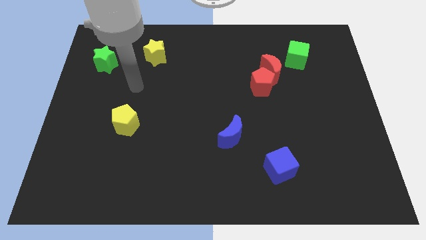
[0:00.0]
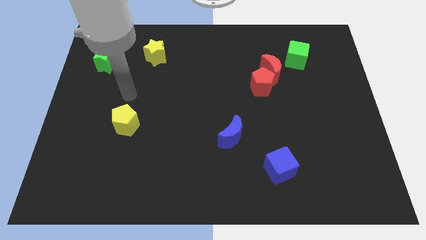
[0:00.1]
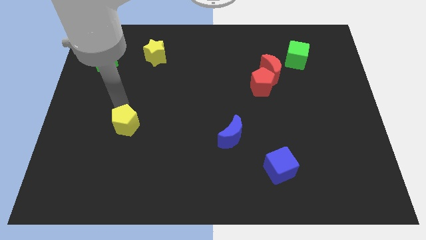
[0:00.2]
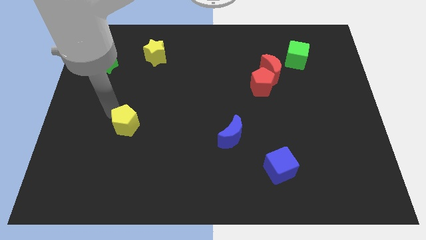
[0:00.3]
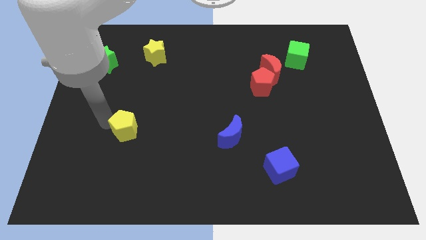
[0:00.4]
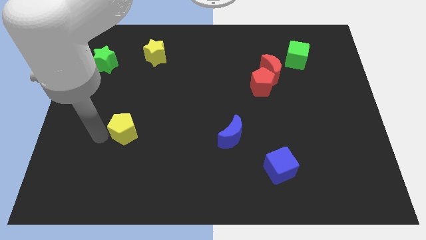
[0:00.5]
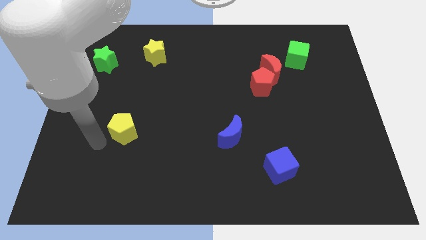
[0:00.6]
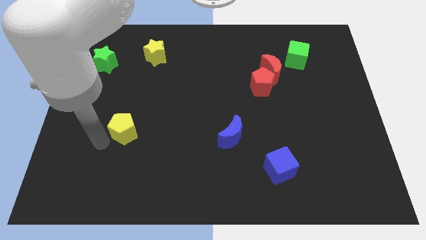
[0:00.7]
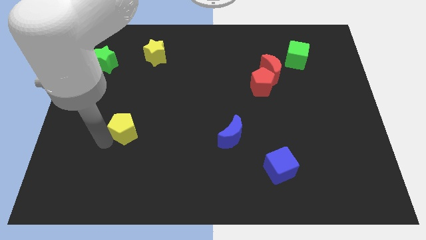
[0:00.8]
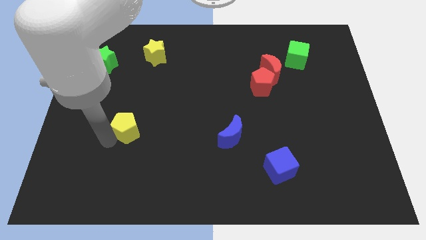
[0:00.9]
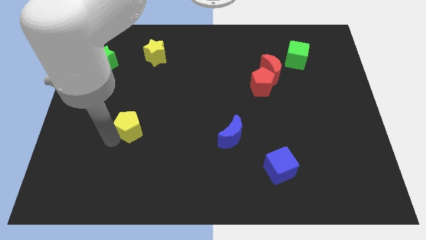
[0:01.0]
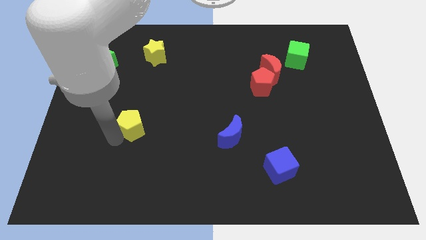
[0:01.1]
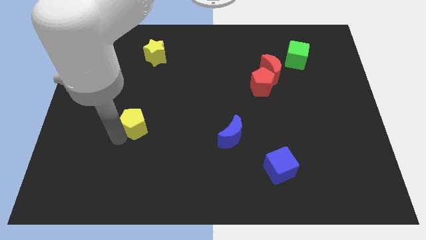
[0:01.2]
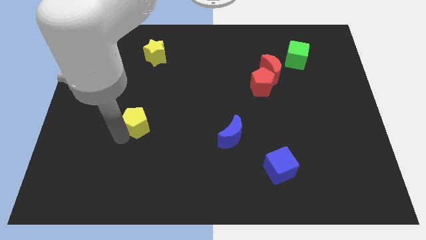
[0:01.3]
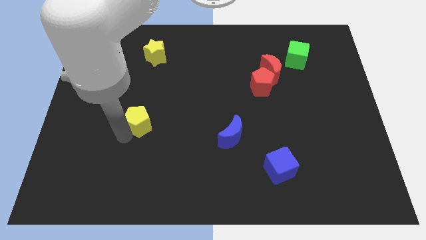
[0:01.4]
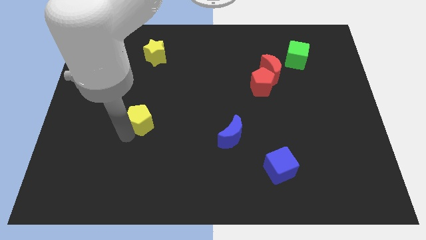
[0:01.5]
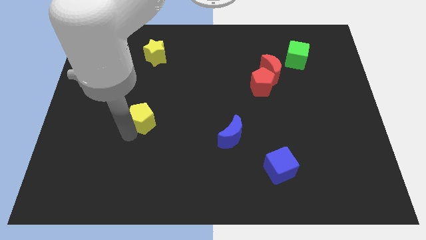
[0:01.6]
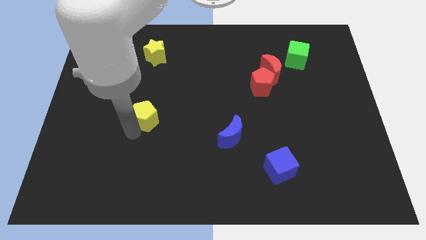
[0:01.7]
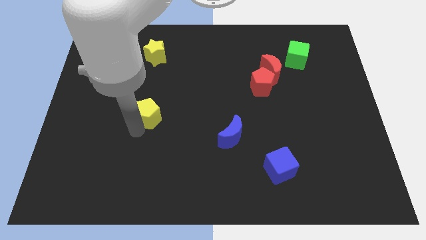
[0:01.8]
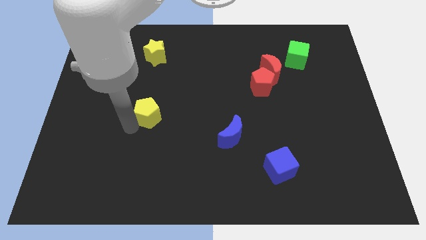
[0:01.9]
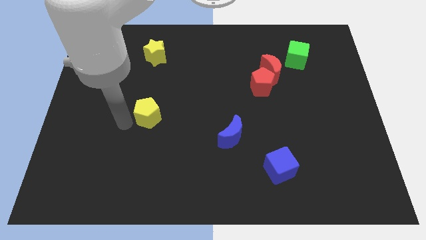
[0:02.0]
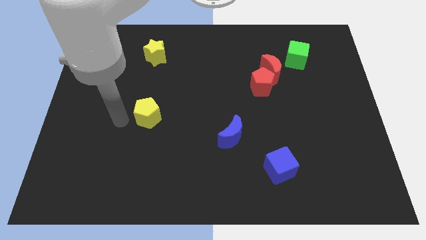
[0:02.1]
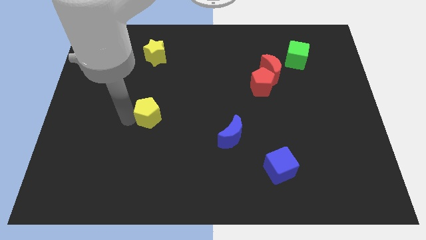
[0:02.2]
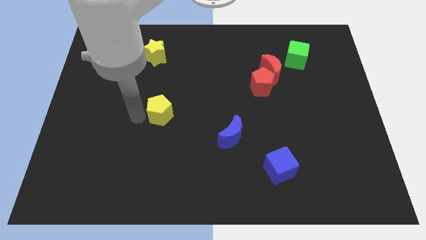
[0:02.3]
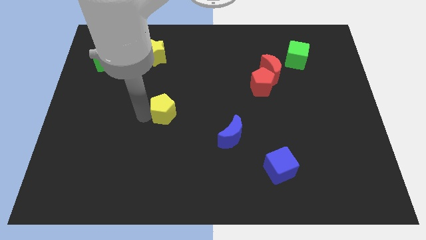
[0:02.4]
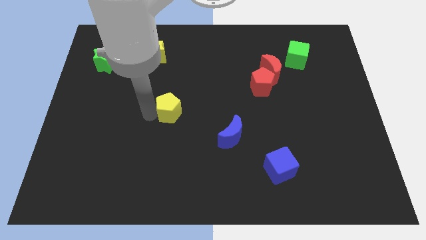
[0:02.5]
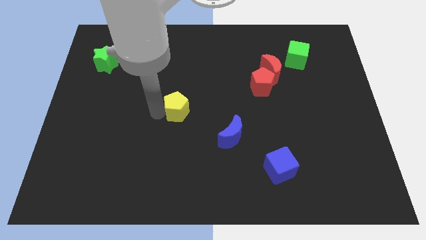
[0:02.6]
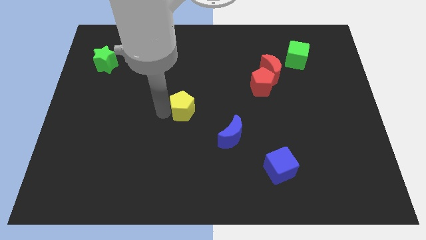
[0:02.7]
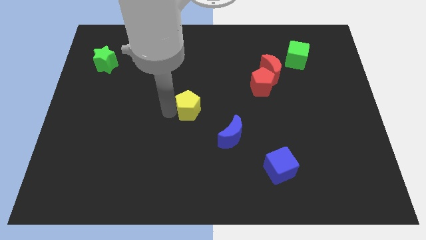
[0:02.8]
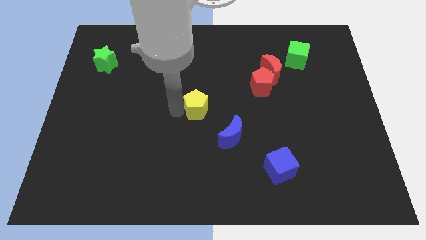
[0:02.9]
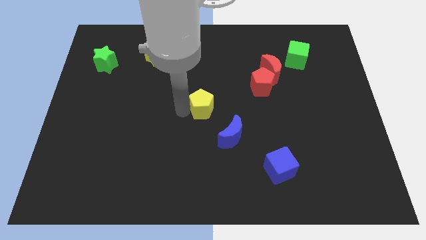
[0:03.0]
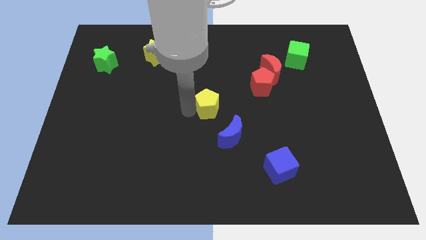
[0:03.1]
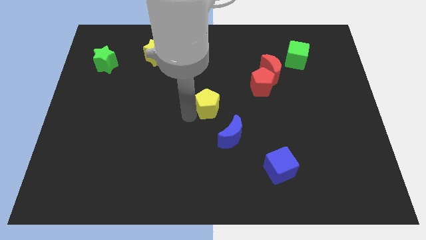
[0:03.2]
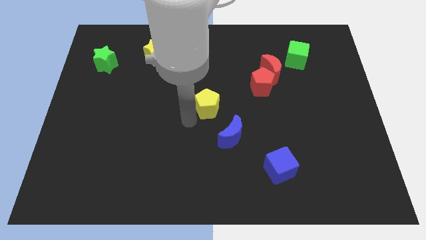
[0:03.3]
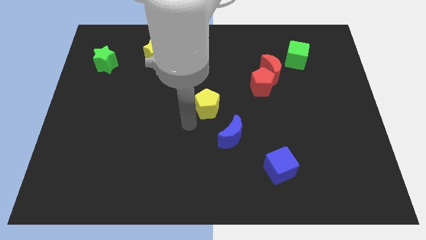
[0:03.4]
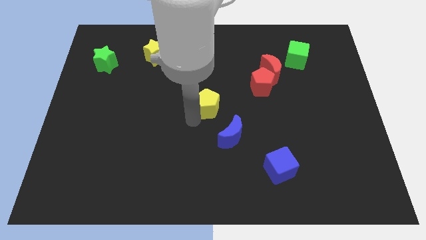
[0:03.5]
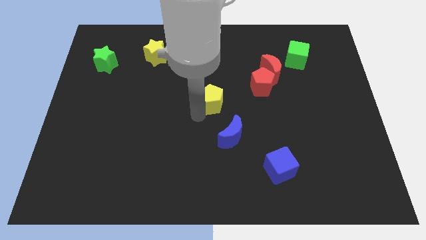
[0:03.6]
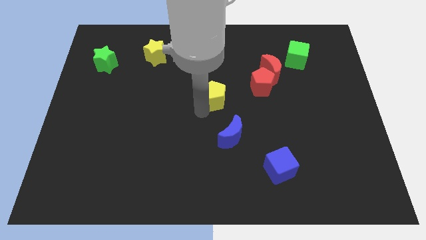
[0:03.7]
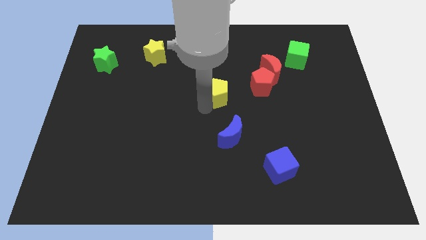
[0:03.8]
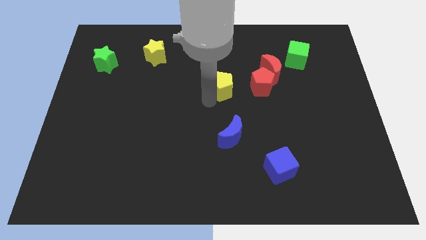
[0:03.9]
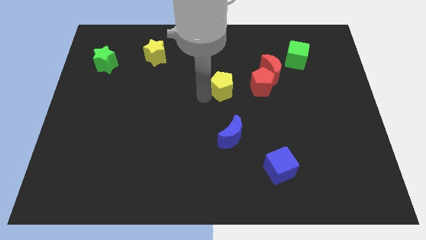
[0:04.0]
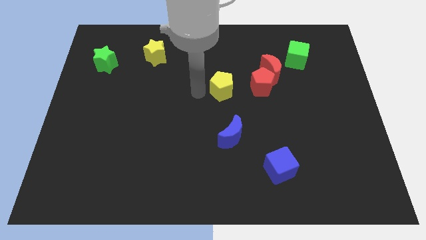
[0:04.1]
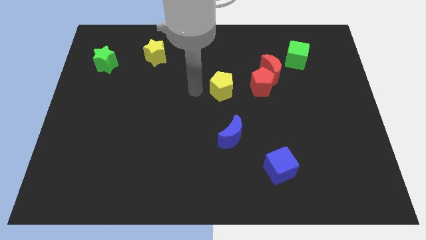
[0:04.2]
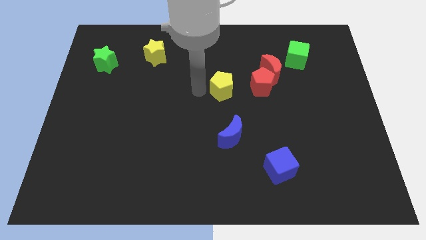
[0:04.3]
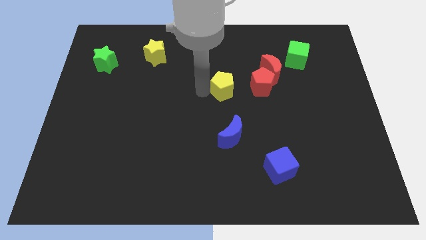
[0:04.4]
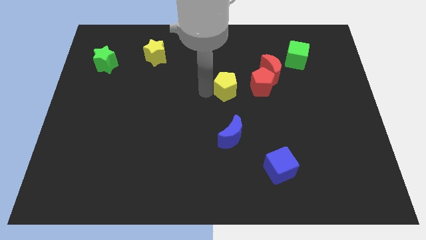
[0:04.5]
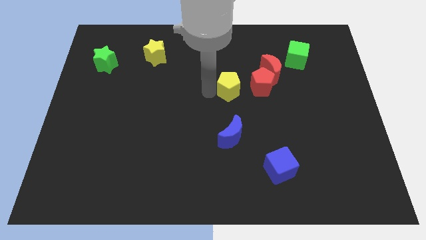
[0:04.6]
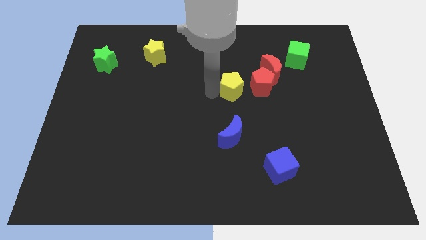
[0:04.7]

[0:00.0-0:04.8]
move the yellow pentagon diagonally down and to the left of the red moon

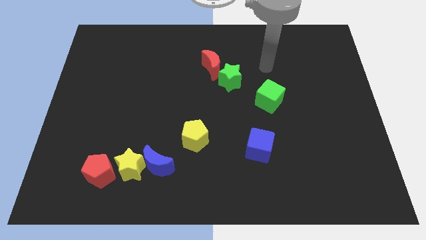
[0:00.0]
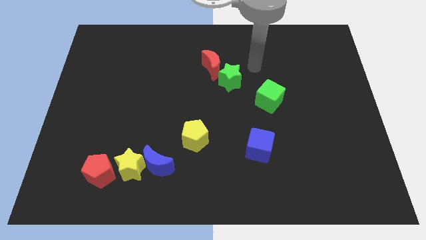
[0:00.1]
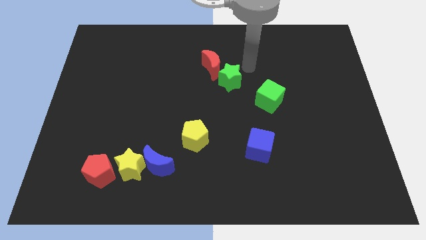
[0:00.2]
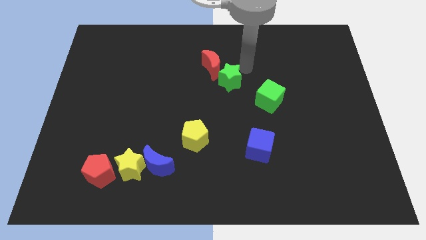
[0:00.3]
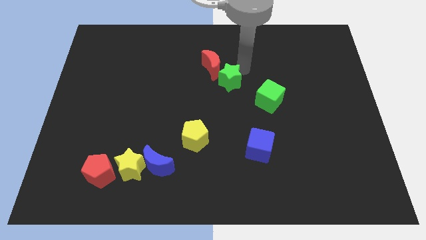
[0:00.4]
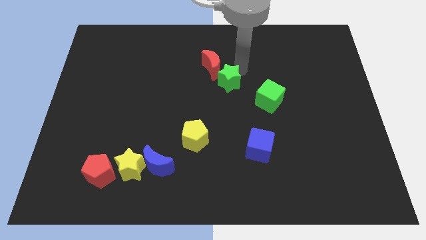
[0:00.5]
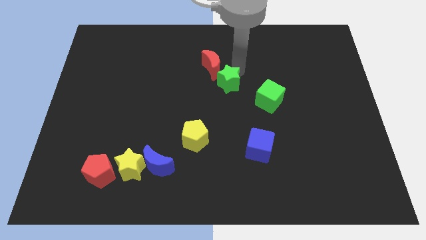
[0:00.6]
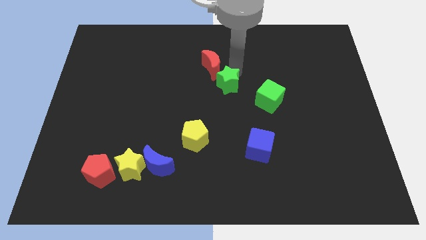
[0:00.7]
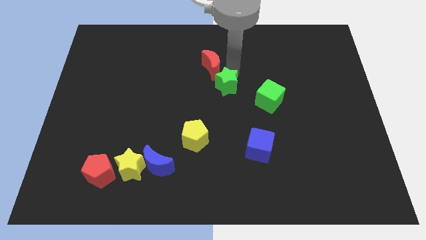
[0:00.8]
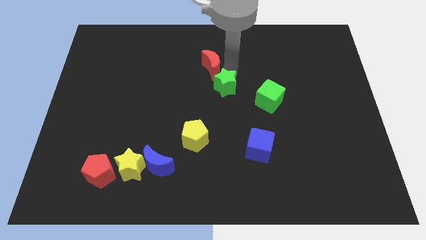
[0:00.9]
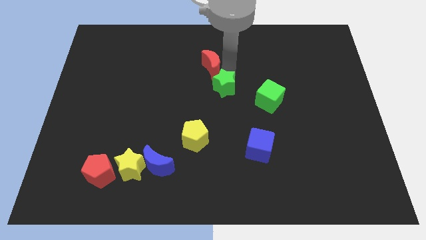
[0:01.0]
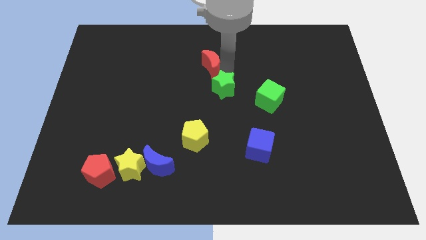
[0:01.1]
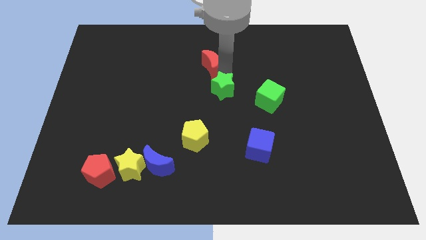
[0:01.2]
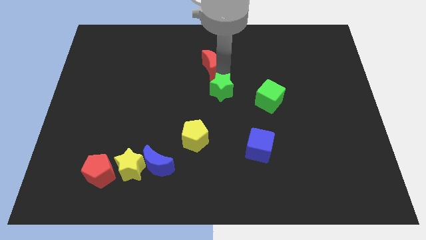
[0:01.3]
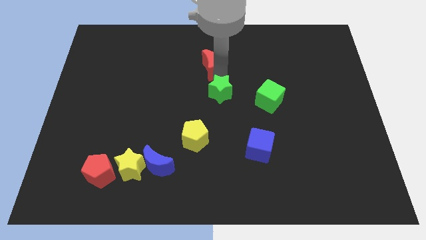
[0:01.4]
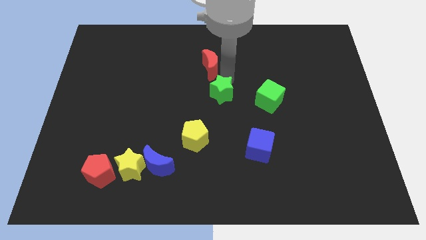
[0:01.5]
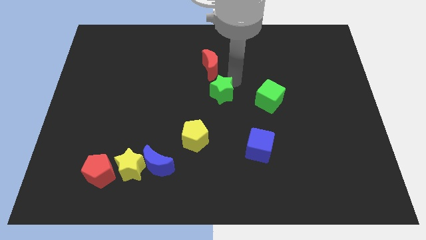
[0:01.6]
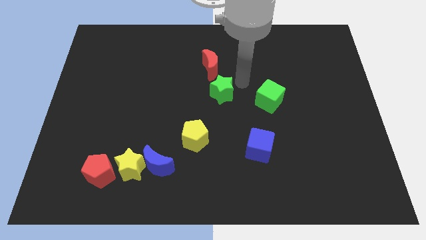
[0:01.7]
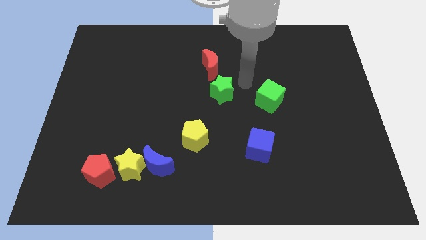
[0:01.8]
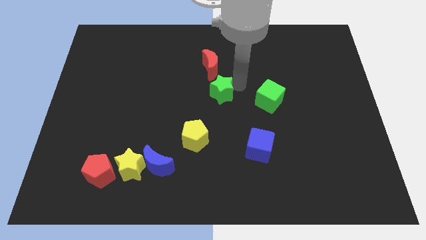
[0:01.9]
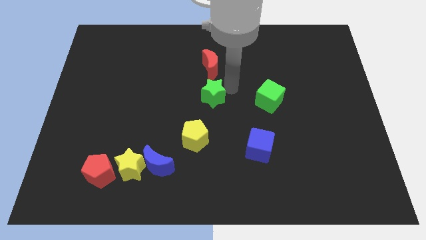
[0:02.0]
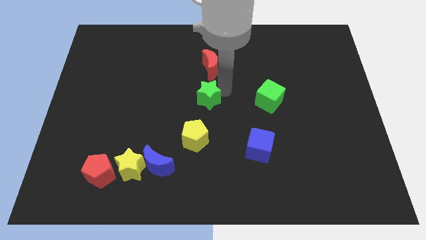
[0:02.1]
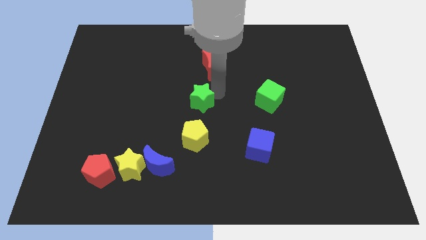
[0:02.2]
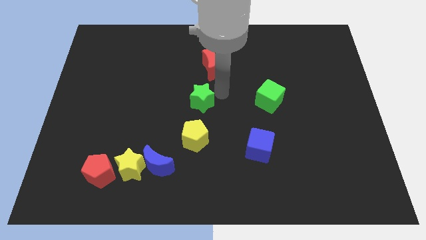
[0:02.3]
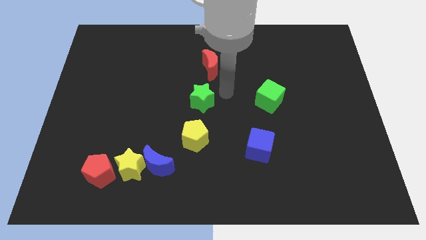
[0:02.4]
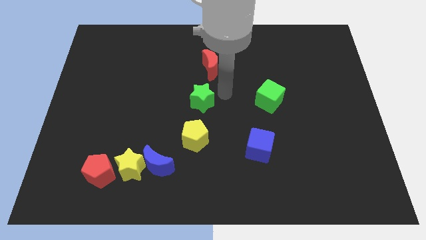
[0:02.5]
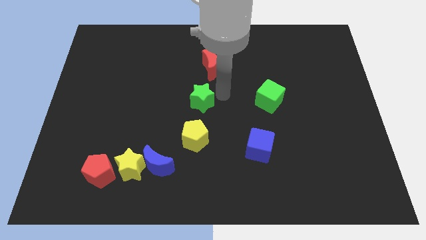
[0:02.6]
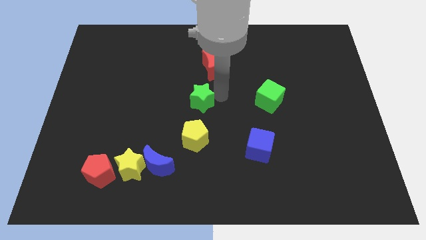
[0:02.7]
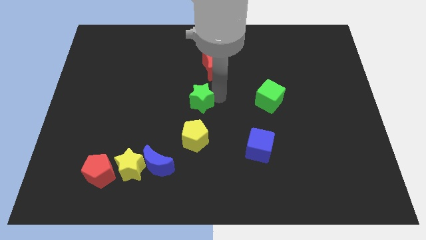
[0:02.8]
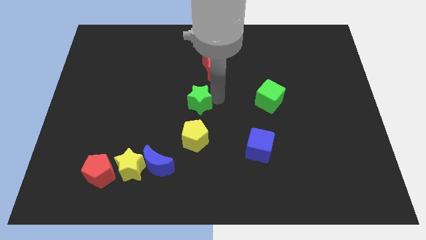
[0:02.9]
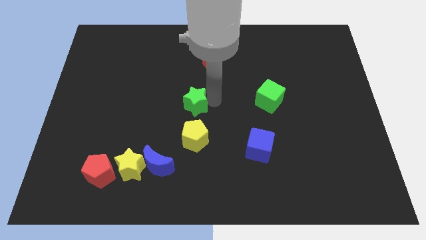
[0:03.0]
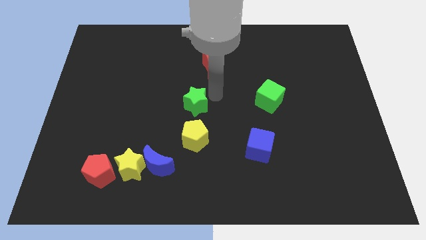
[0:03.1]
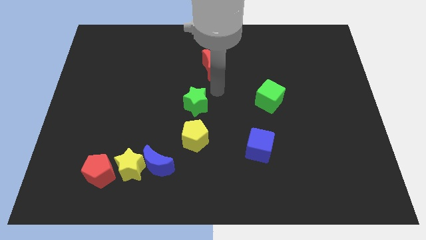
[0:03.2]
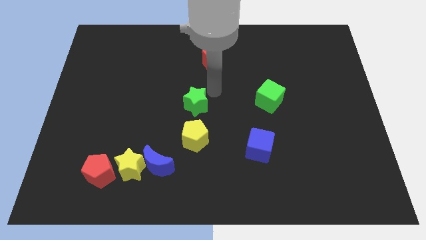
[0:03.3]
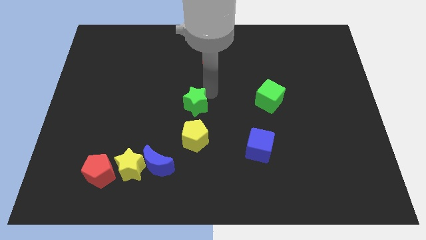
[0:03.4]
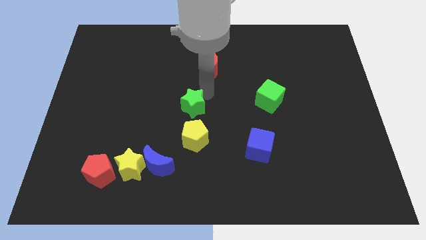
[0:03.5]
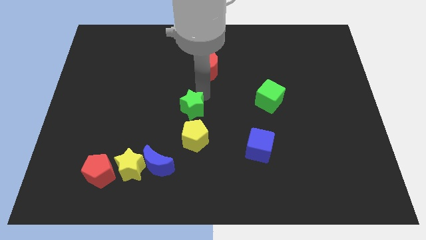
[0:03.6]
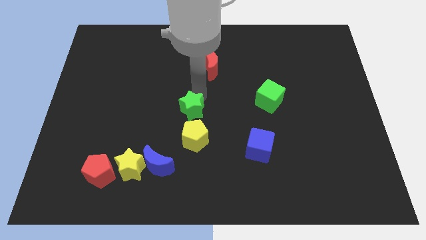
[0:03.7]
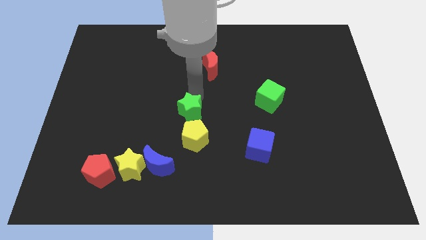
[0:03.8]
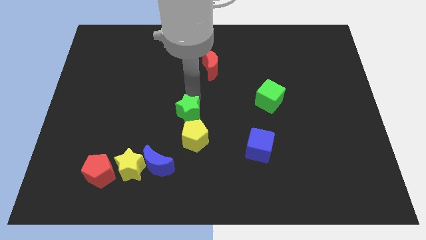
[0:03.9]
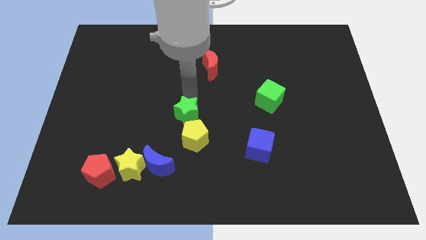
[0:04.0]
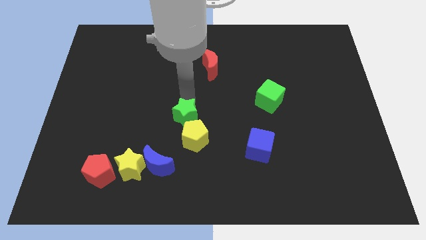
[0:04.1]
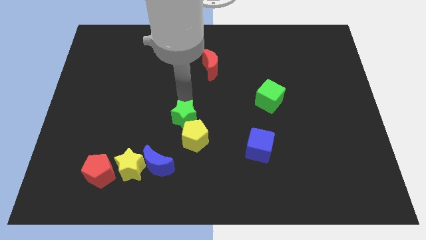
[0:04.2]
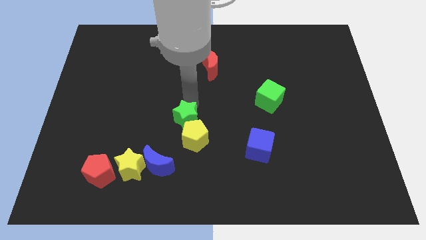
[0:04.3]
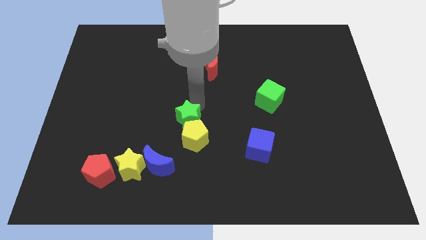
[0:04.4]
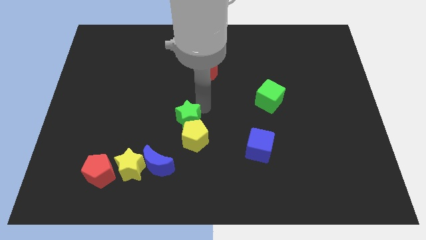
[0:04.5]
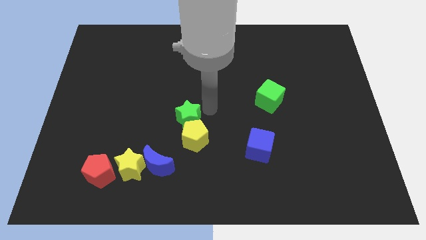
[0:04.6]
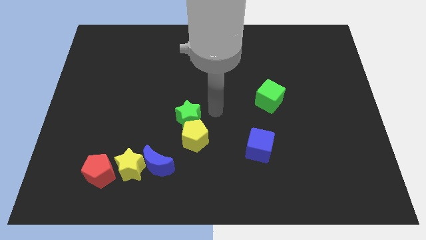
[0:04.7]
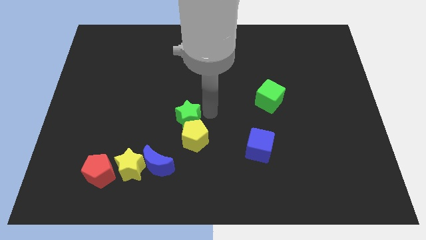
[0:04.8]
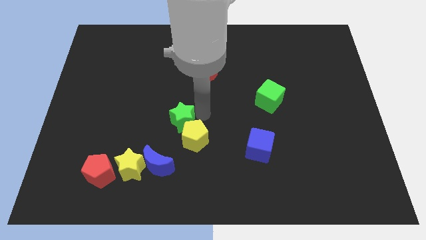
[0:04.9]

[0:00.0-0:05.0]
slide the green star to the top side of the blue moon
